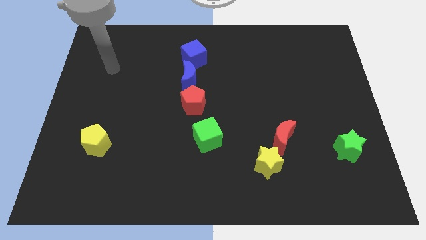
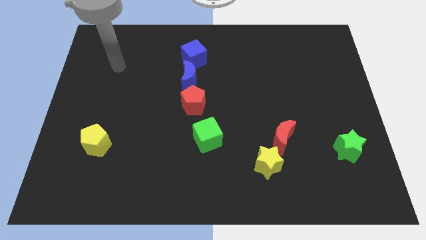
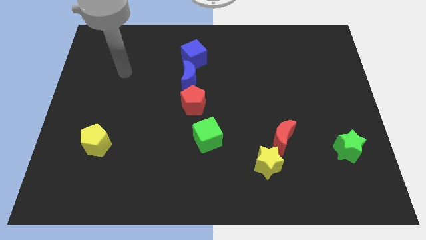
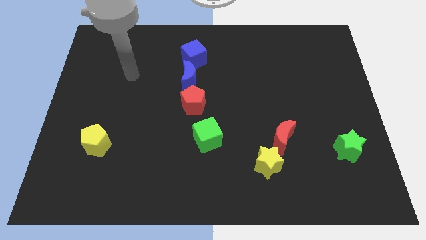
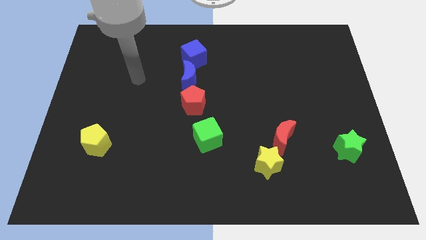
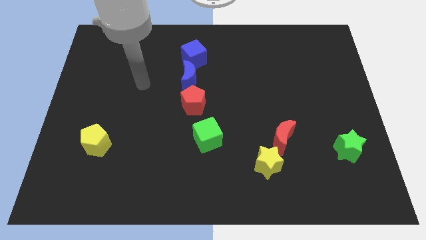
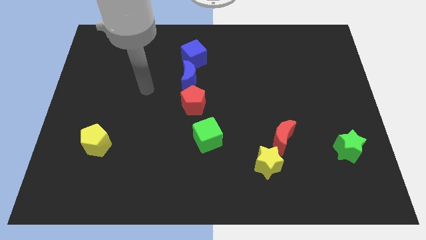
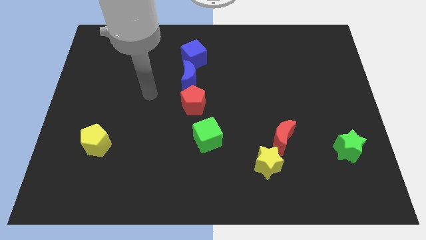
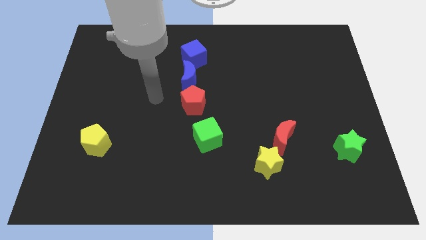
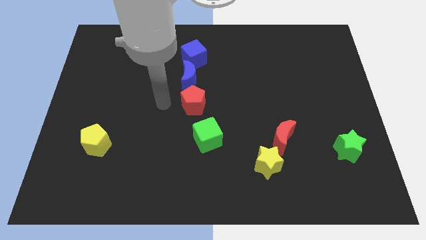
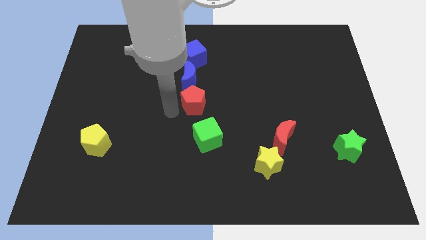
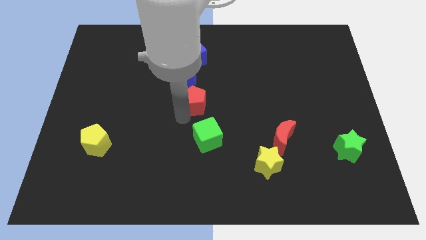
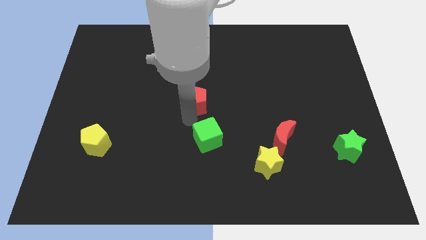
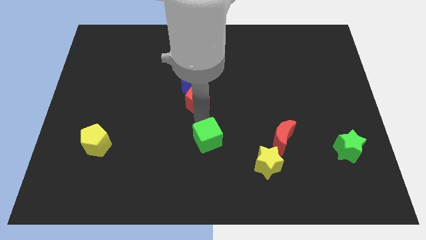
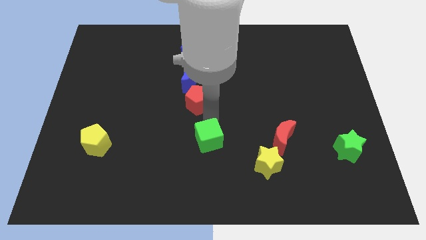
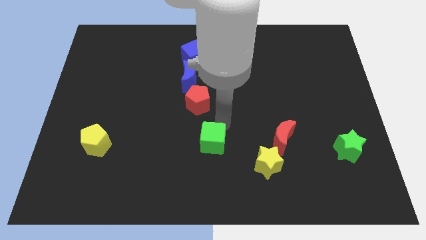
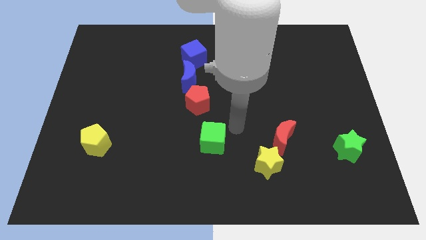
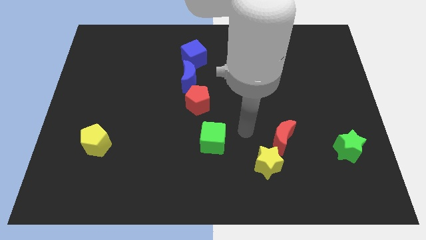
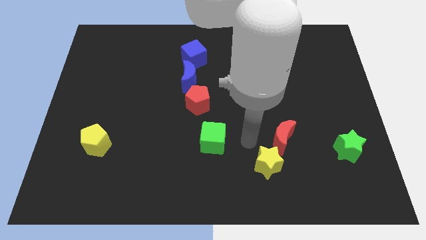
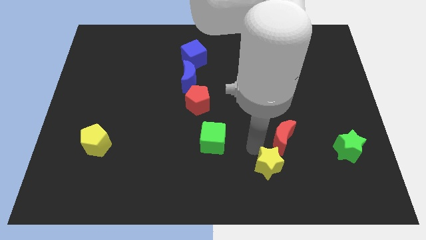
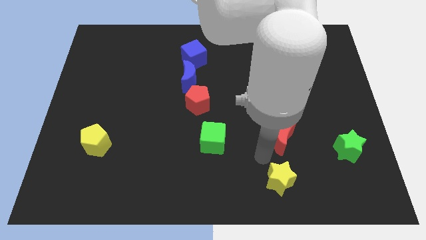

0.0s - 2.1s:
separate the red moon from the yellow star

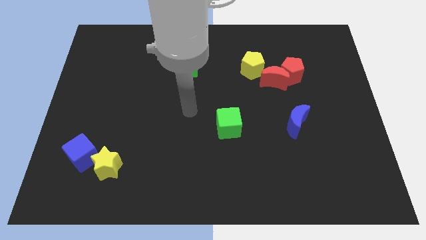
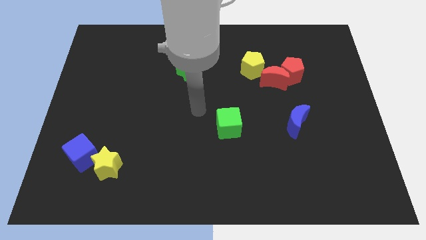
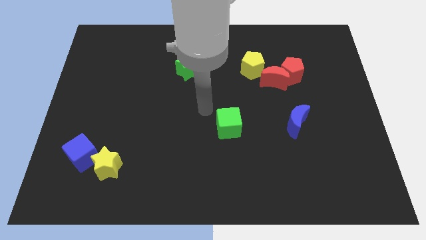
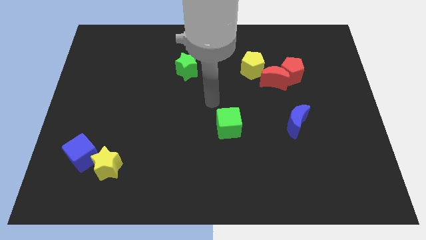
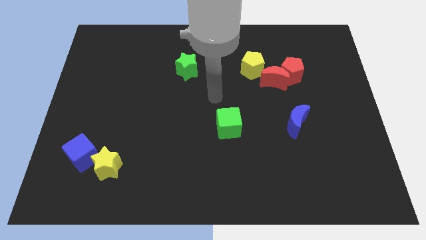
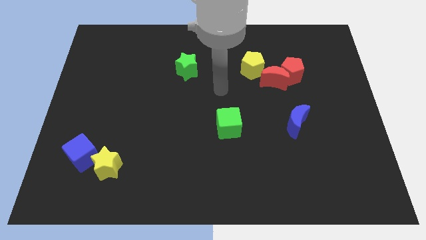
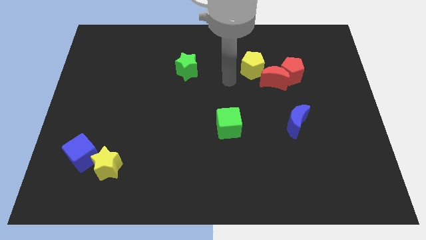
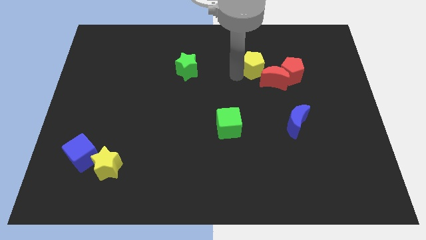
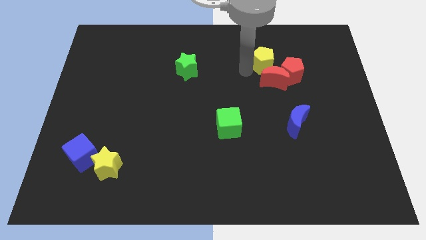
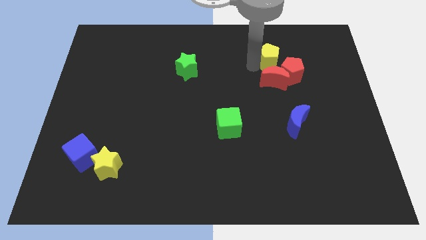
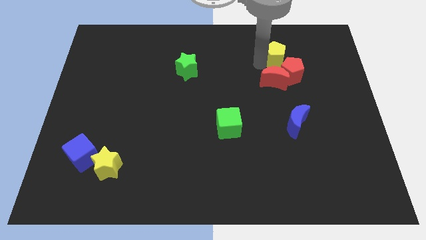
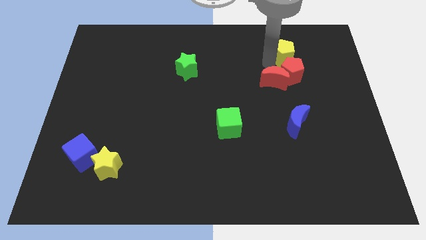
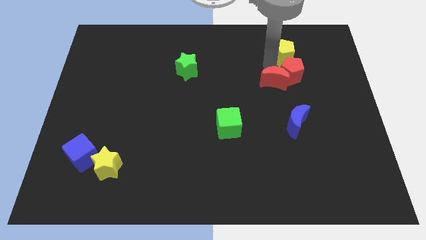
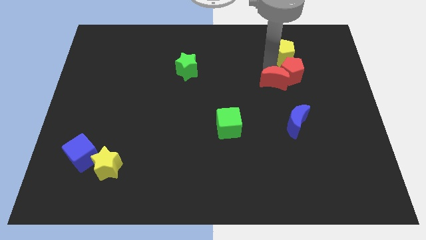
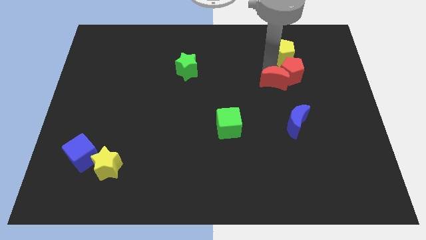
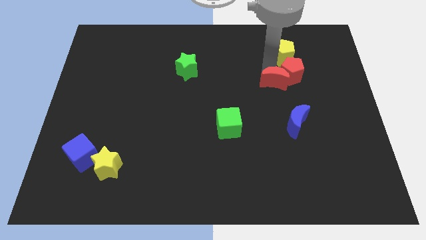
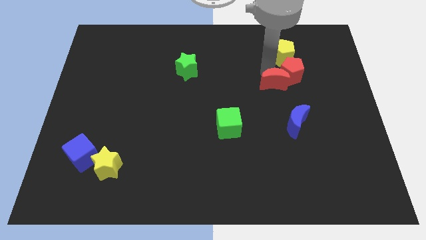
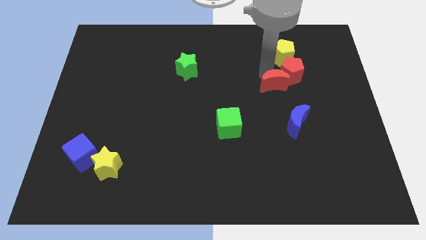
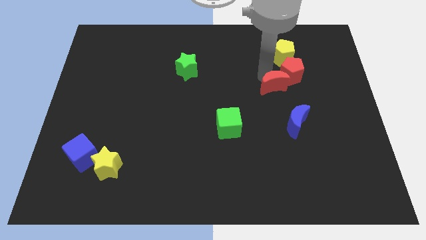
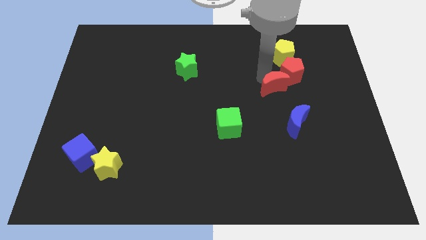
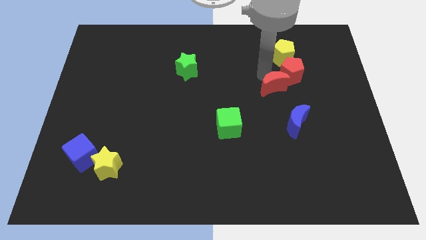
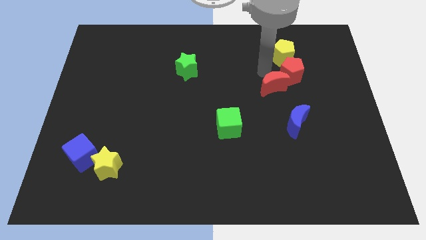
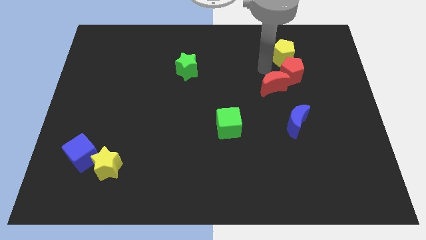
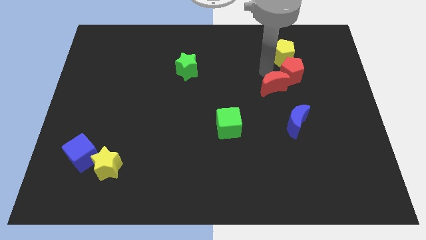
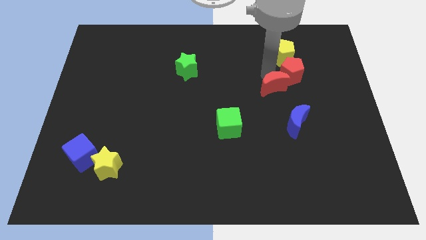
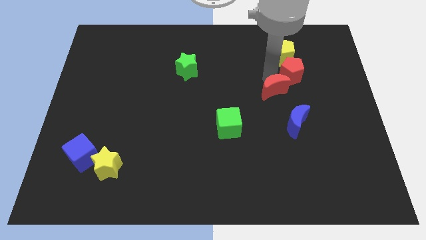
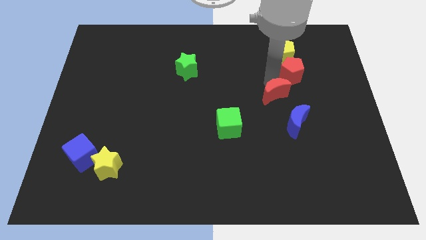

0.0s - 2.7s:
move the red moon away from the red pentagon and yellow pentagon

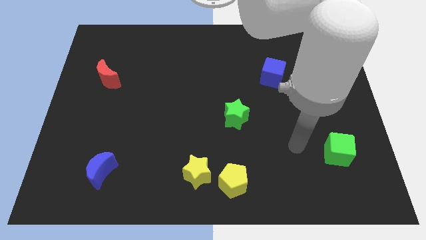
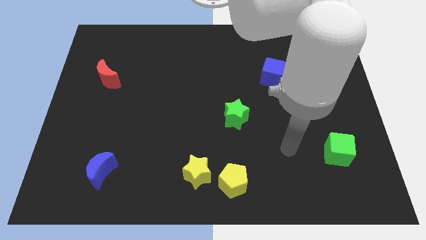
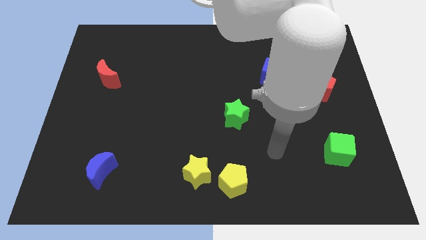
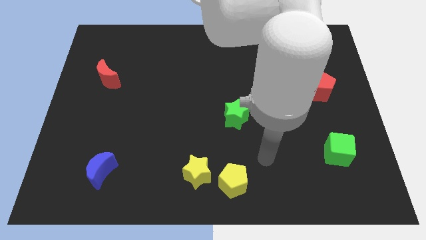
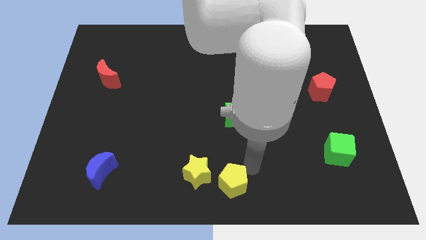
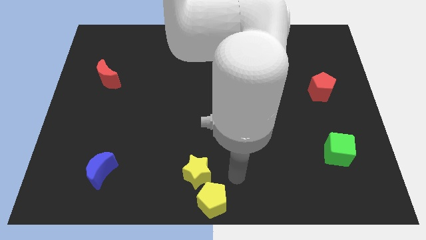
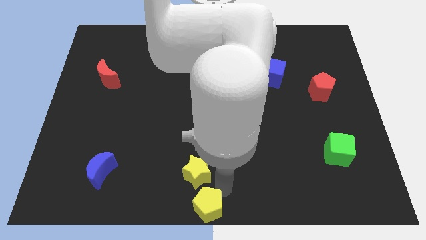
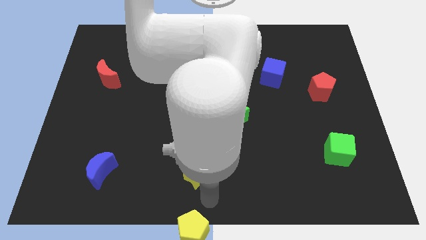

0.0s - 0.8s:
pull the yellow star apart from the yellow pentagon

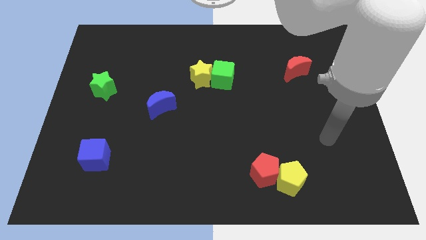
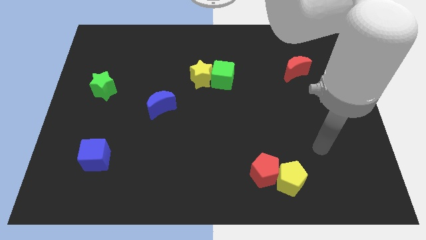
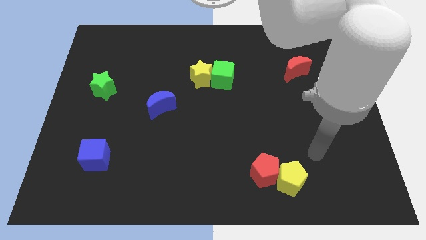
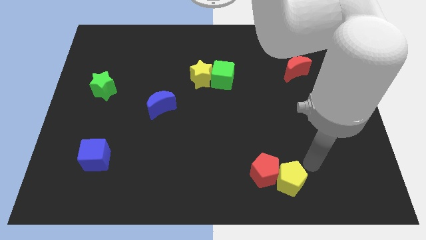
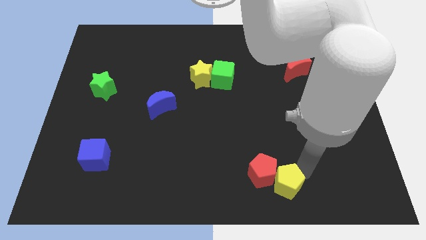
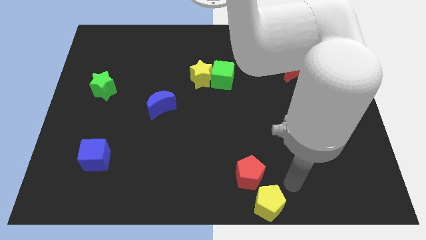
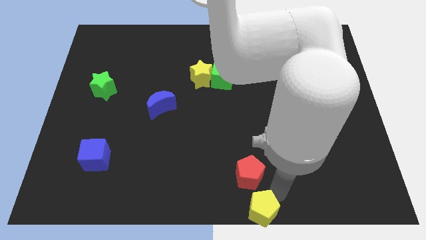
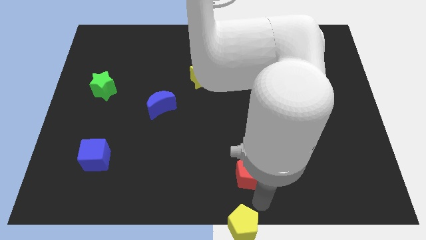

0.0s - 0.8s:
pull the red pentagon apart from the yellow pentagon

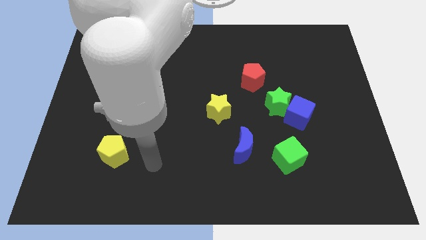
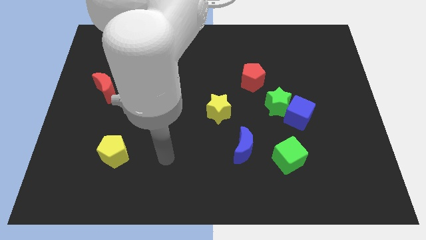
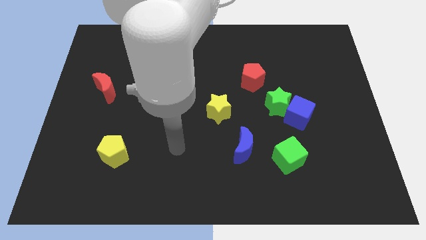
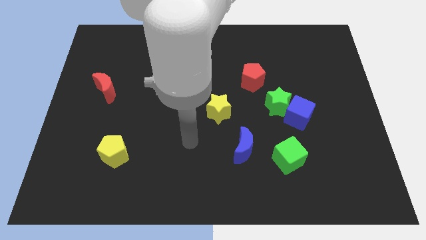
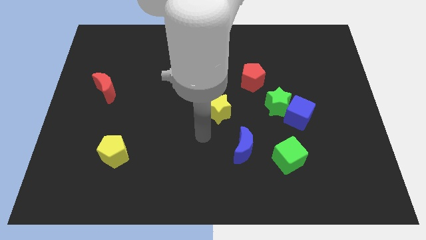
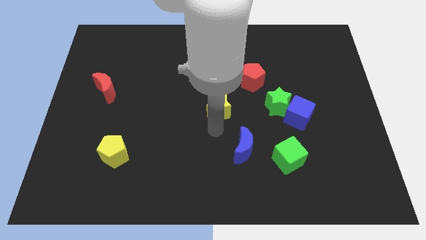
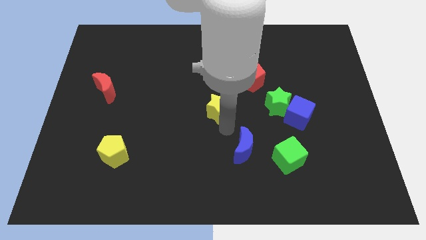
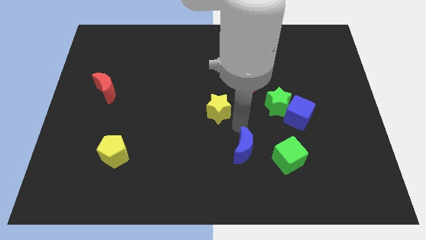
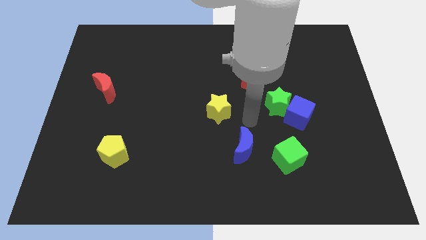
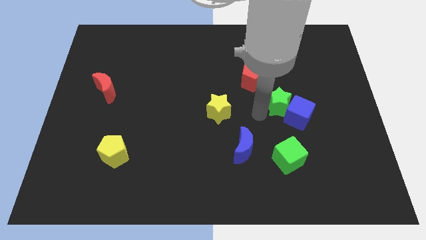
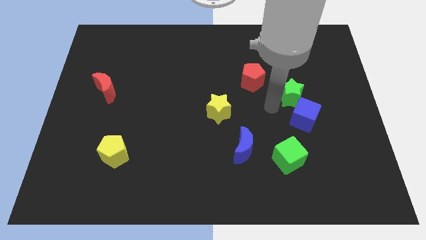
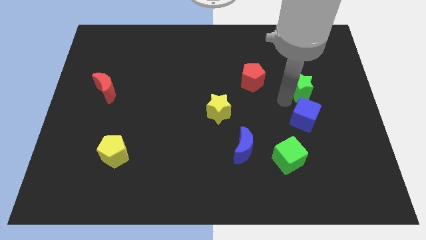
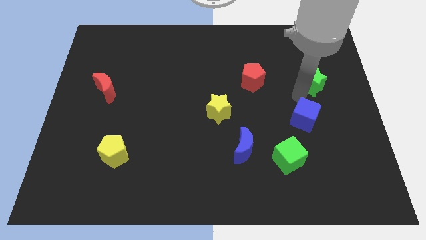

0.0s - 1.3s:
separate the blue cube from the green star

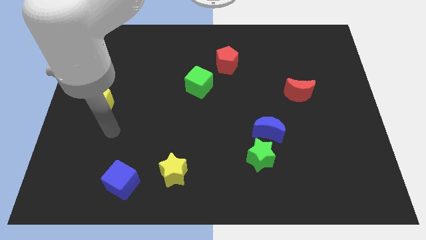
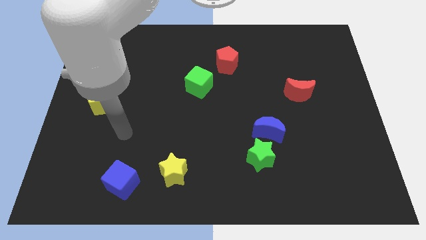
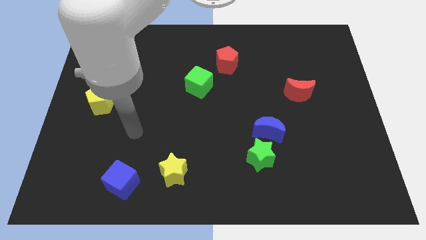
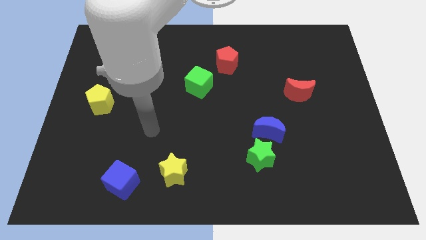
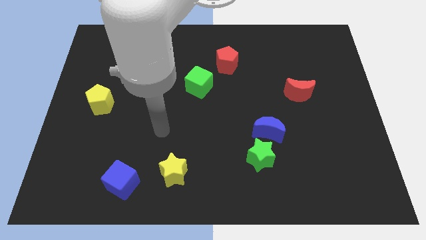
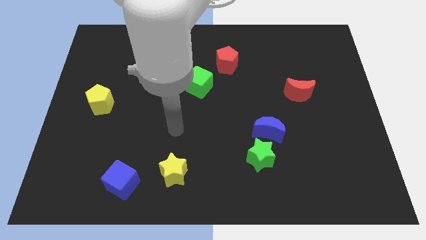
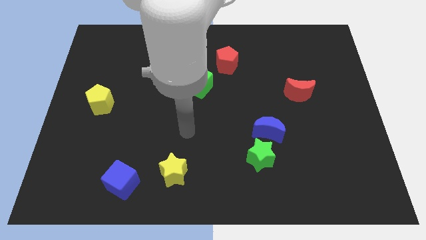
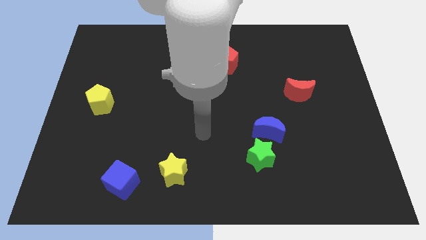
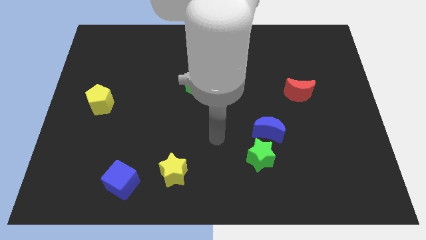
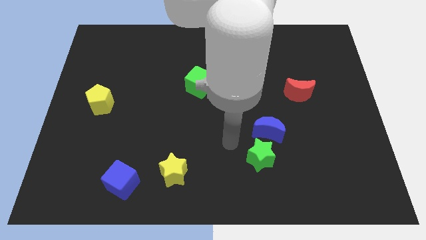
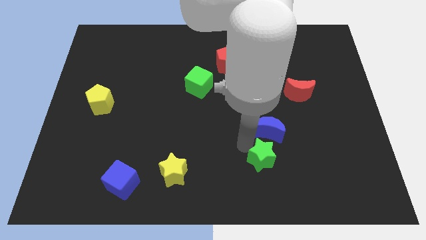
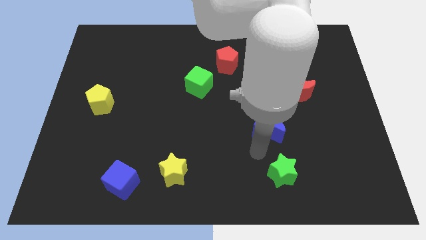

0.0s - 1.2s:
pull the blue moon apart from the green star

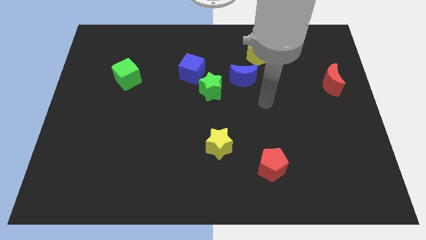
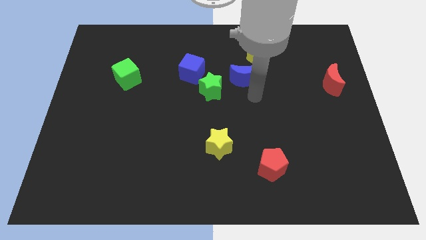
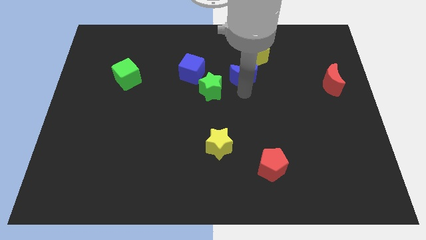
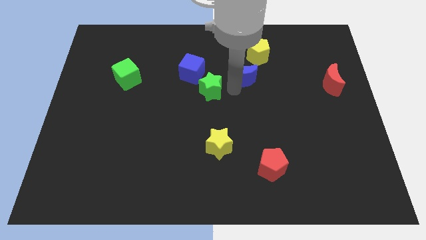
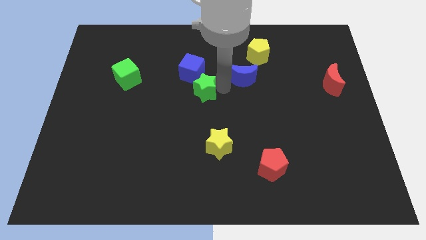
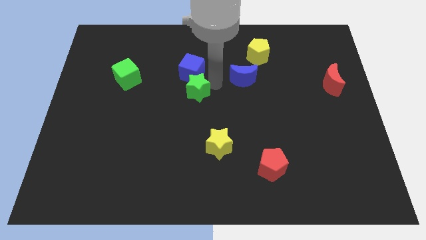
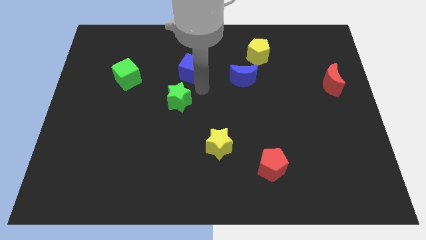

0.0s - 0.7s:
pull the blue cube apart from the green star
